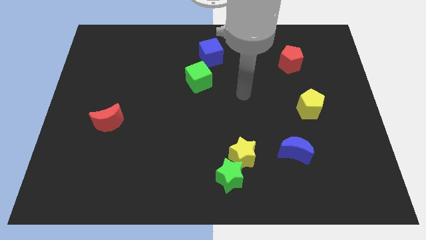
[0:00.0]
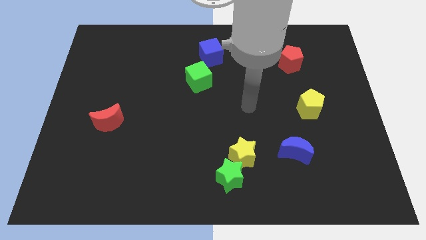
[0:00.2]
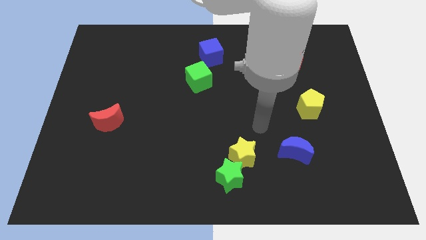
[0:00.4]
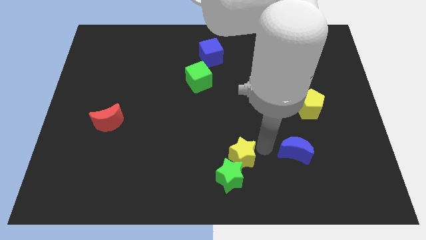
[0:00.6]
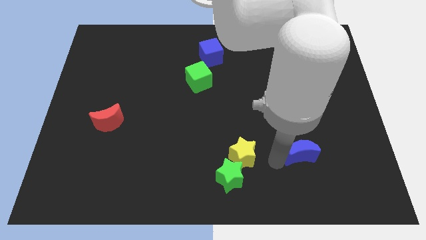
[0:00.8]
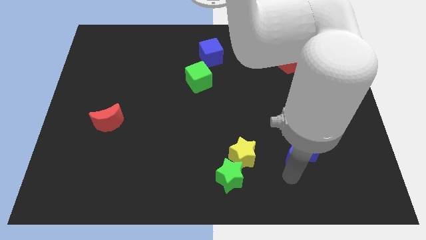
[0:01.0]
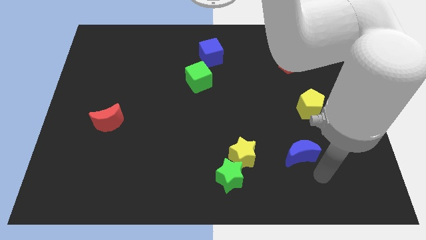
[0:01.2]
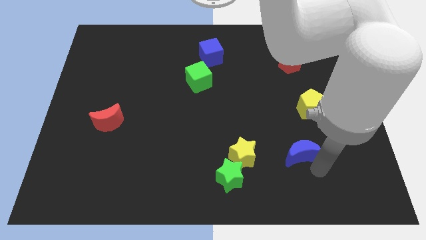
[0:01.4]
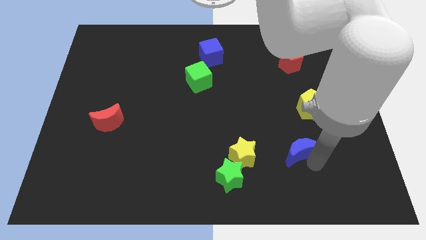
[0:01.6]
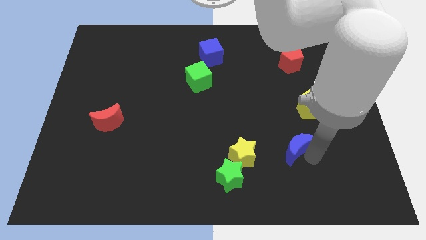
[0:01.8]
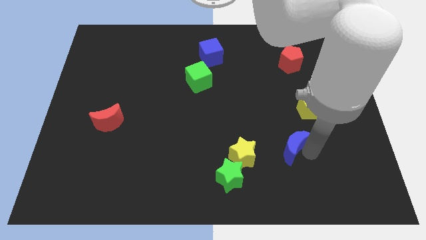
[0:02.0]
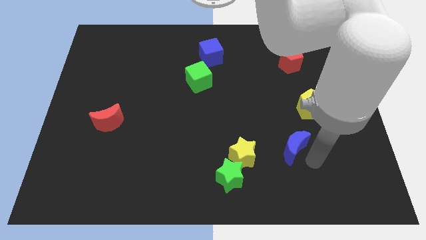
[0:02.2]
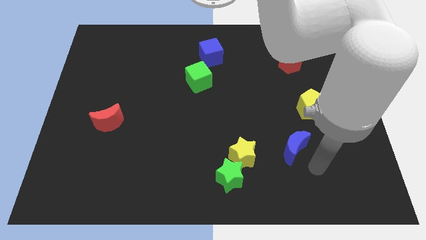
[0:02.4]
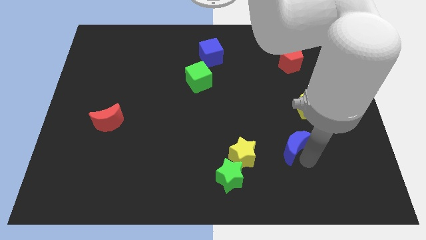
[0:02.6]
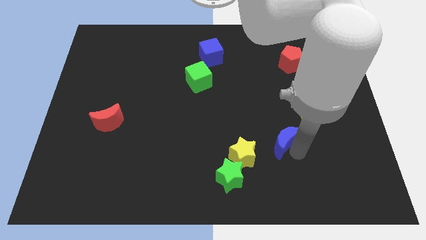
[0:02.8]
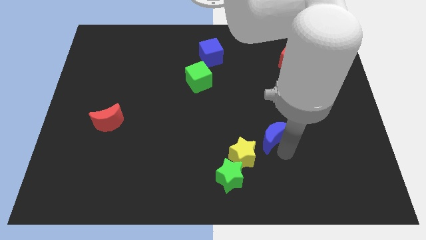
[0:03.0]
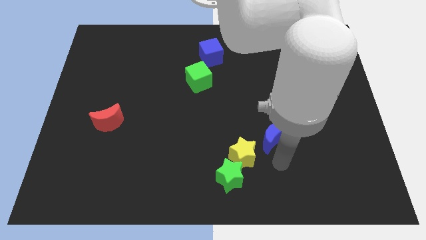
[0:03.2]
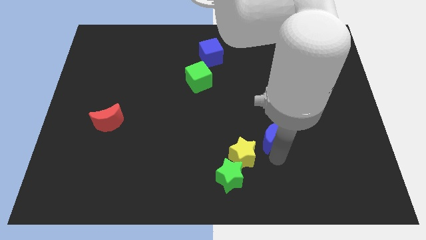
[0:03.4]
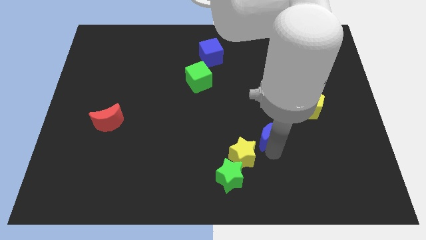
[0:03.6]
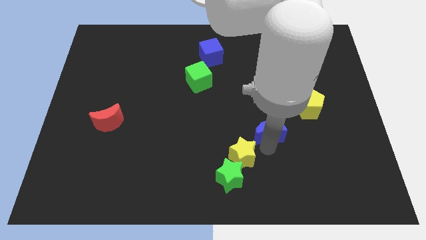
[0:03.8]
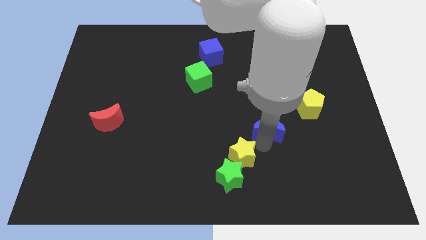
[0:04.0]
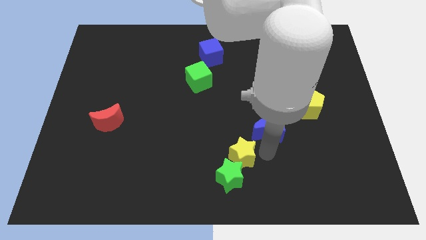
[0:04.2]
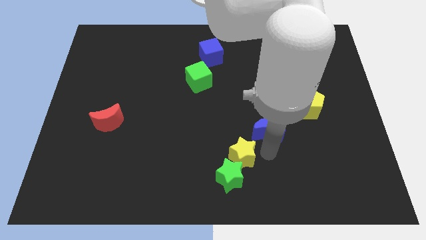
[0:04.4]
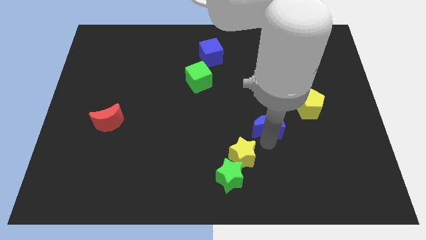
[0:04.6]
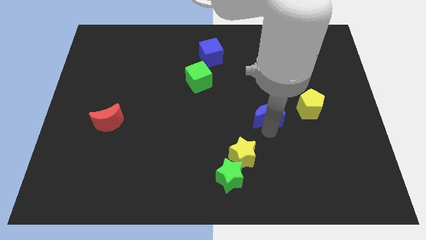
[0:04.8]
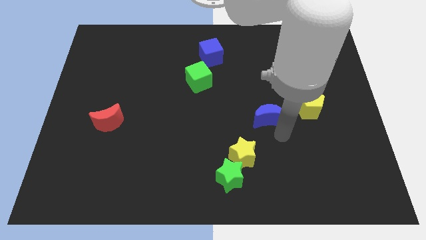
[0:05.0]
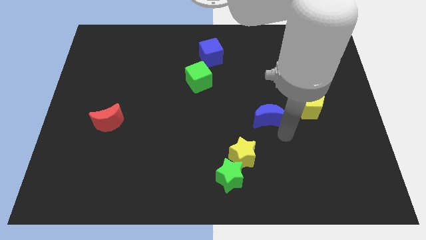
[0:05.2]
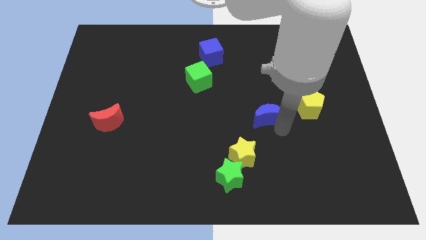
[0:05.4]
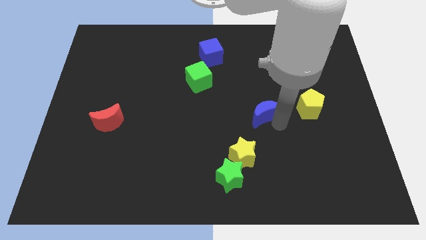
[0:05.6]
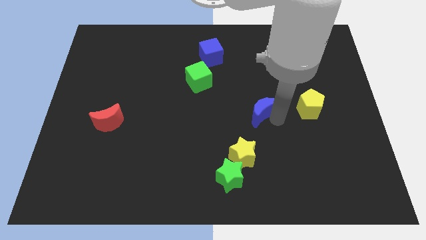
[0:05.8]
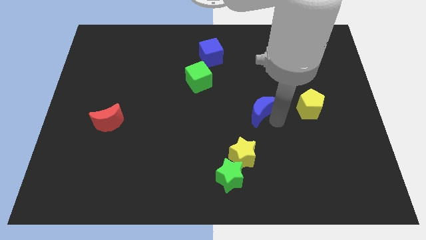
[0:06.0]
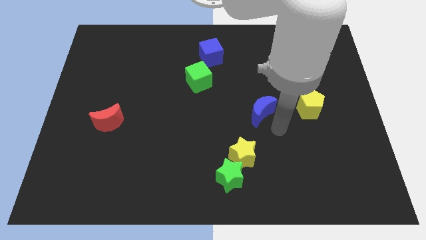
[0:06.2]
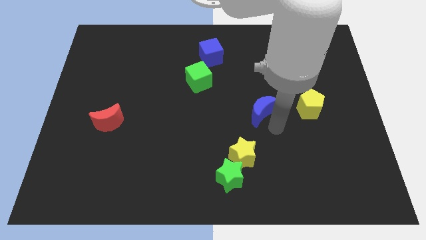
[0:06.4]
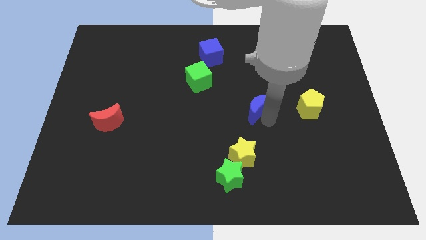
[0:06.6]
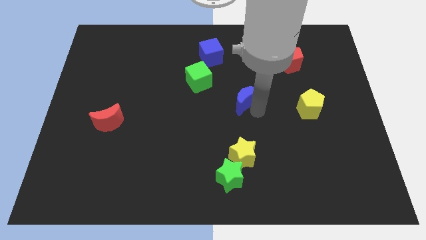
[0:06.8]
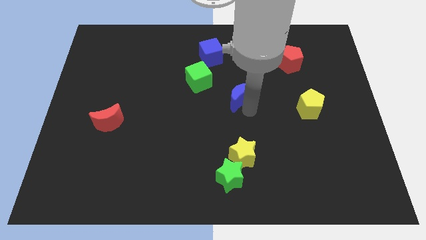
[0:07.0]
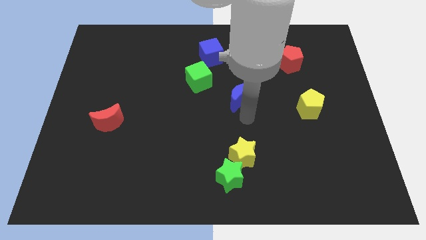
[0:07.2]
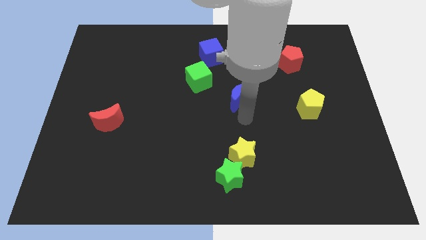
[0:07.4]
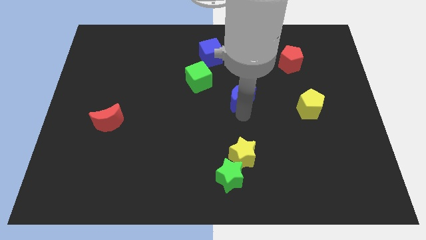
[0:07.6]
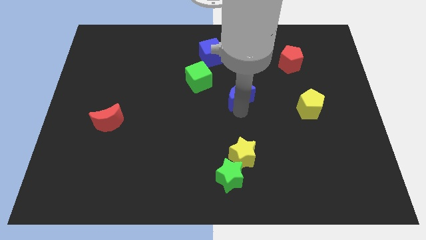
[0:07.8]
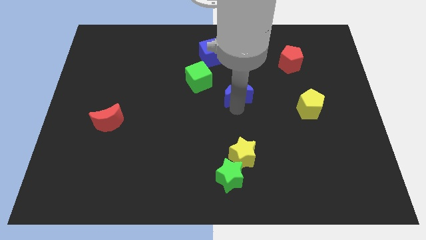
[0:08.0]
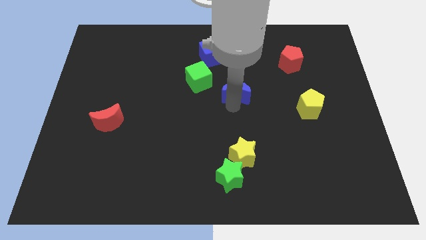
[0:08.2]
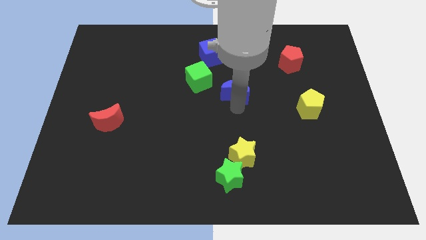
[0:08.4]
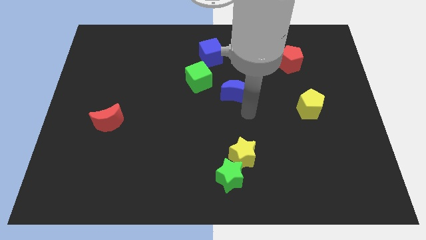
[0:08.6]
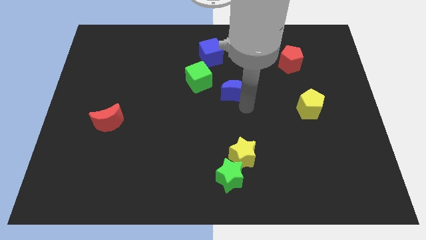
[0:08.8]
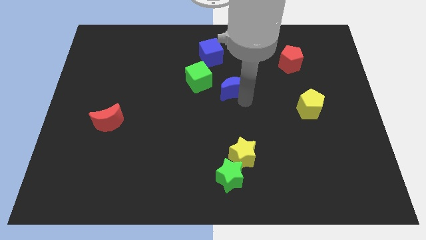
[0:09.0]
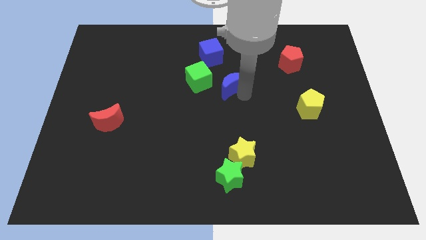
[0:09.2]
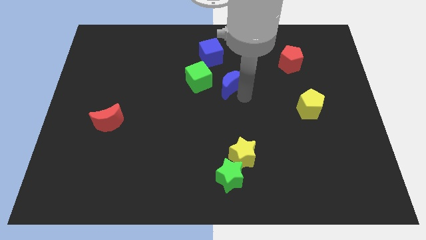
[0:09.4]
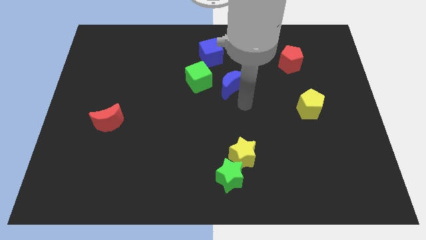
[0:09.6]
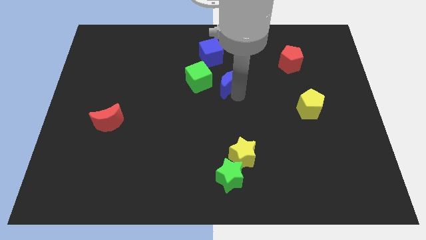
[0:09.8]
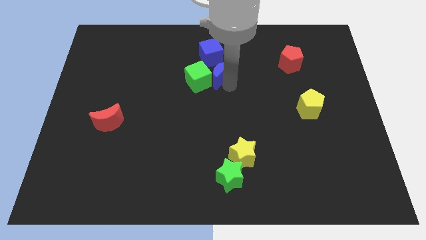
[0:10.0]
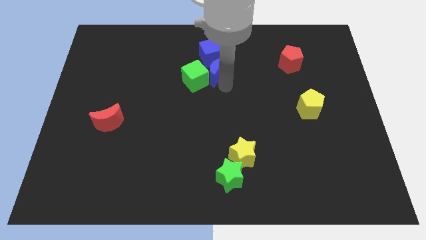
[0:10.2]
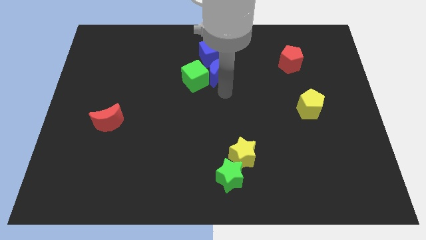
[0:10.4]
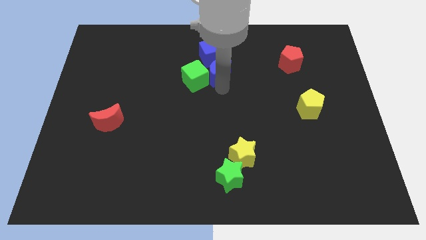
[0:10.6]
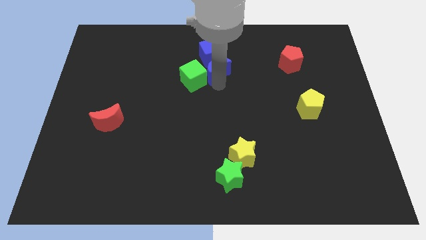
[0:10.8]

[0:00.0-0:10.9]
move the blue moon next to the blue cube

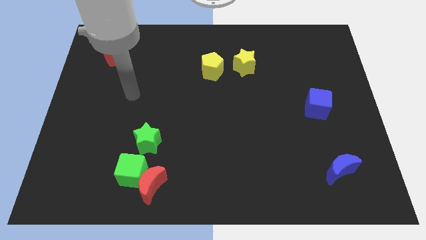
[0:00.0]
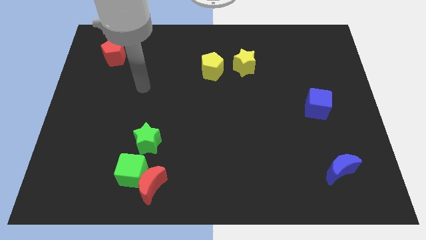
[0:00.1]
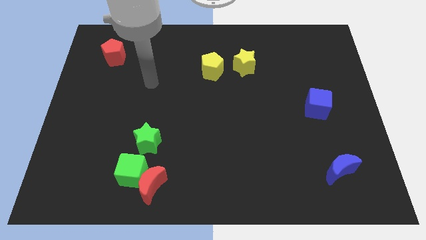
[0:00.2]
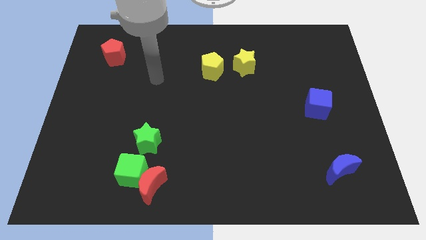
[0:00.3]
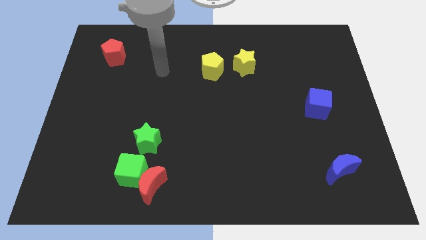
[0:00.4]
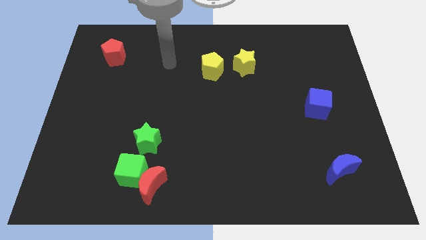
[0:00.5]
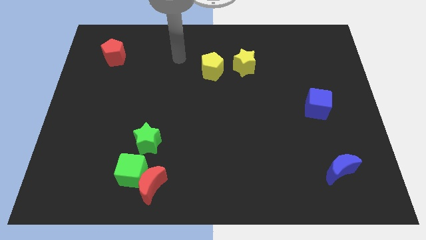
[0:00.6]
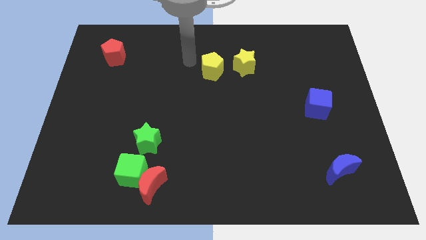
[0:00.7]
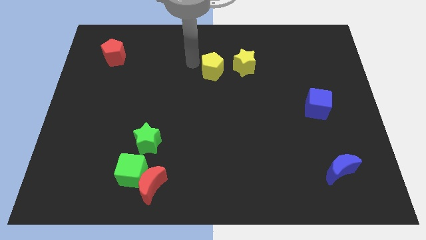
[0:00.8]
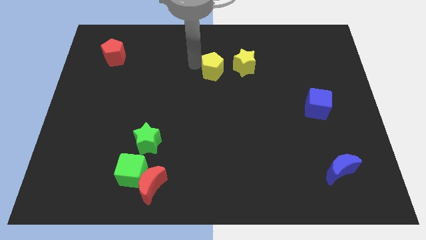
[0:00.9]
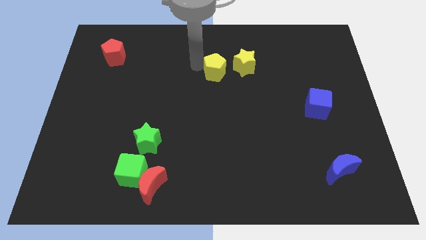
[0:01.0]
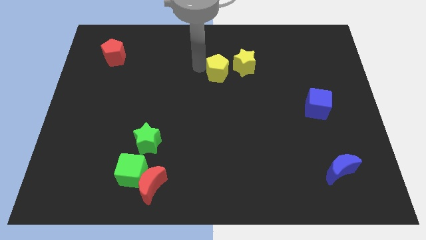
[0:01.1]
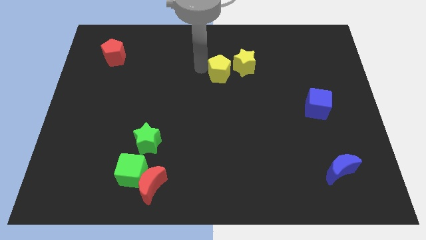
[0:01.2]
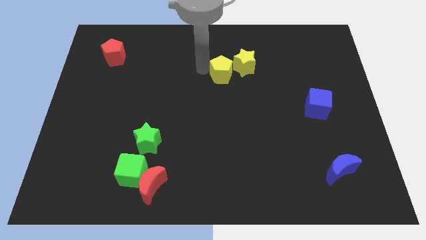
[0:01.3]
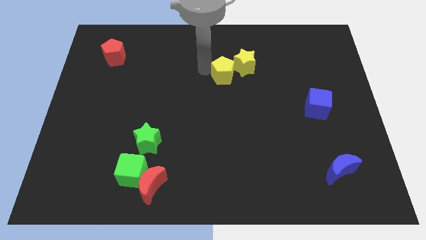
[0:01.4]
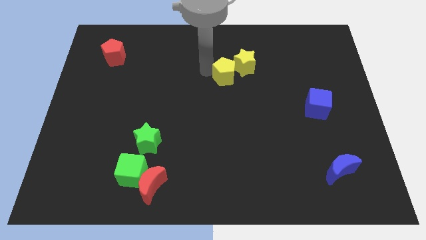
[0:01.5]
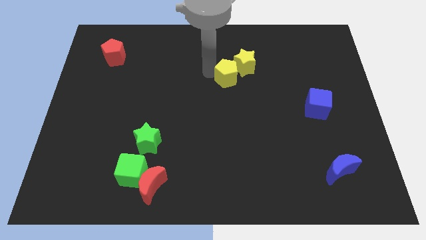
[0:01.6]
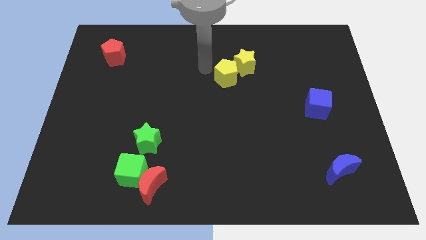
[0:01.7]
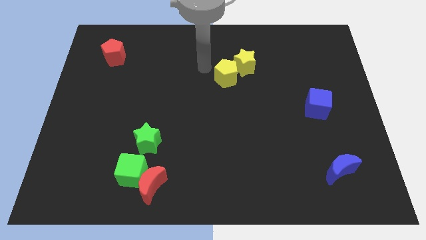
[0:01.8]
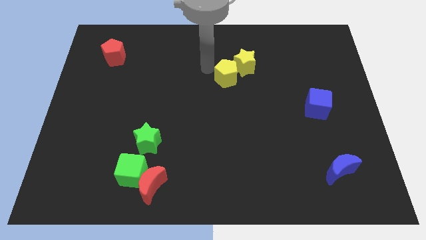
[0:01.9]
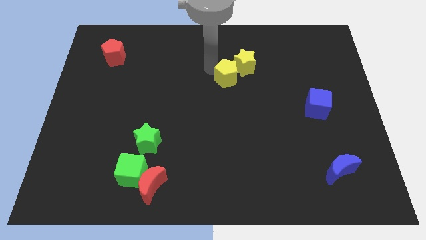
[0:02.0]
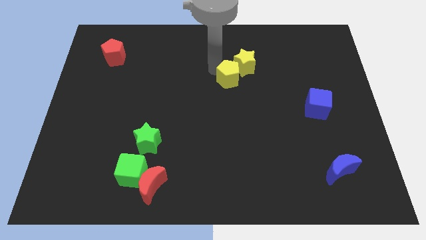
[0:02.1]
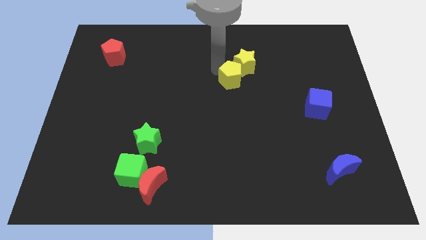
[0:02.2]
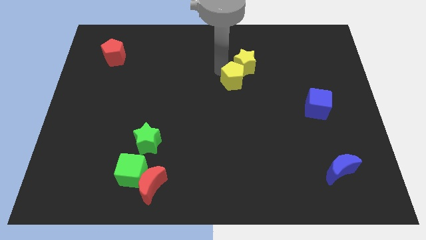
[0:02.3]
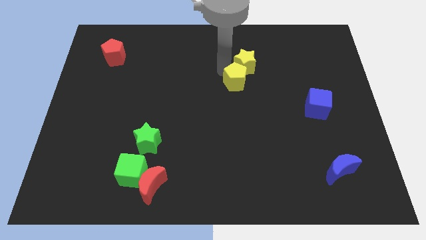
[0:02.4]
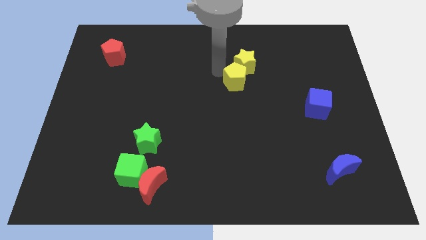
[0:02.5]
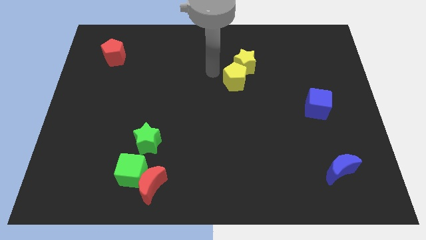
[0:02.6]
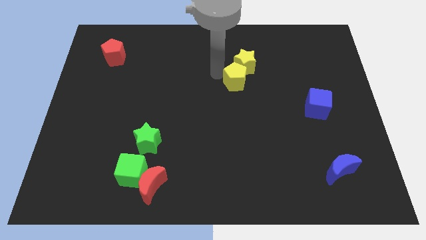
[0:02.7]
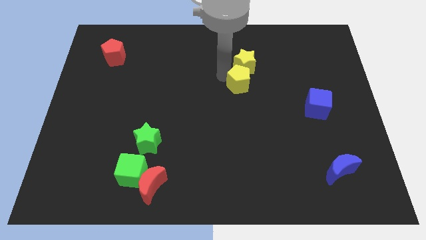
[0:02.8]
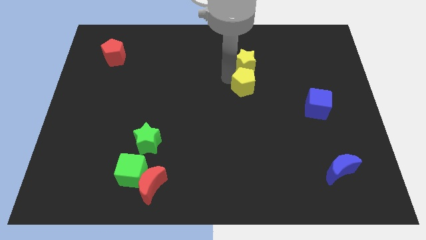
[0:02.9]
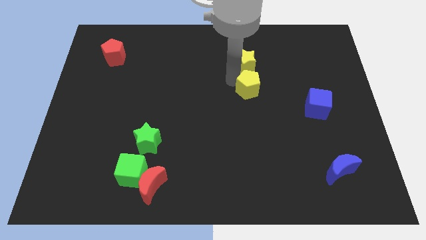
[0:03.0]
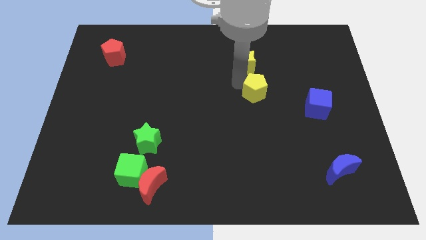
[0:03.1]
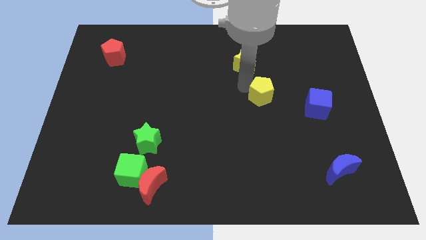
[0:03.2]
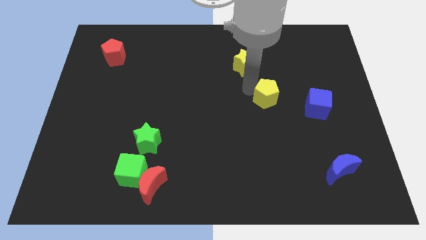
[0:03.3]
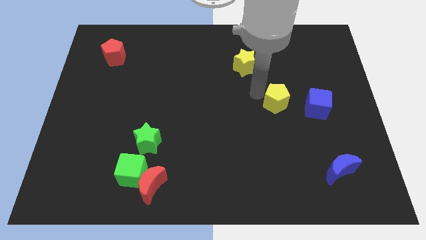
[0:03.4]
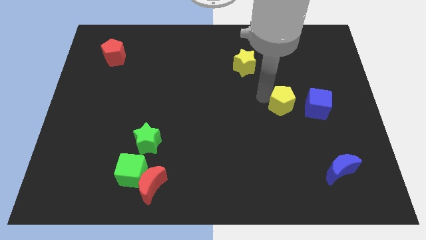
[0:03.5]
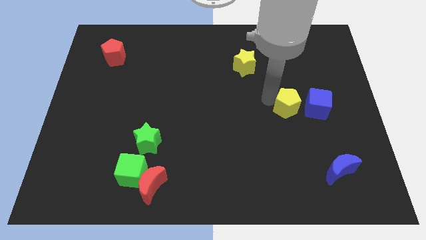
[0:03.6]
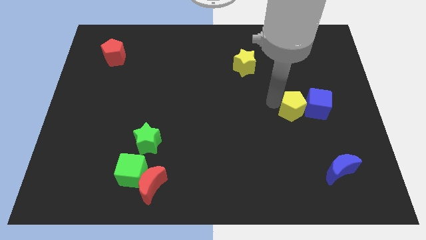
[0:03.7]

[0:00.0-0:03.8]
move the yellow pentagon close to the blue cube
